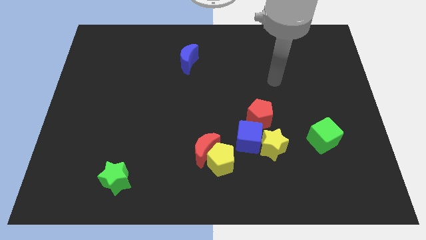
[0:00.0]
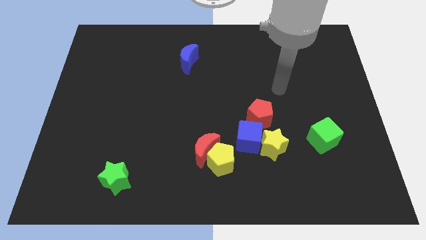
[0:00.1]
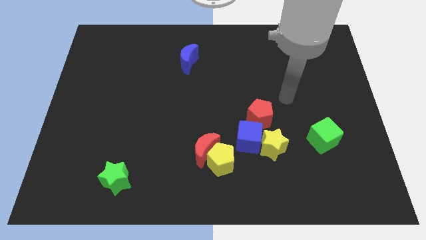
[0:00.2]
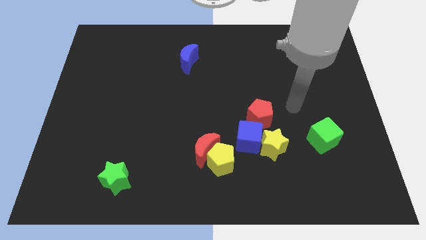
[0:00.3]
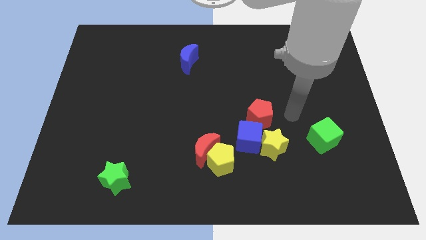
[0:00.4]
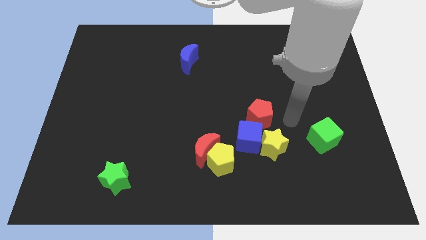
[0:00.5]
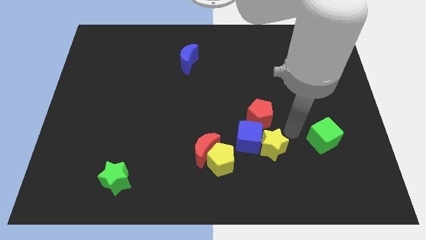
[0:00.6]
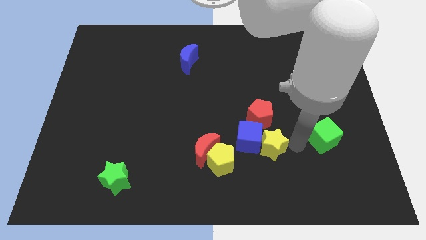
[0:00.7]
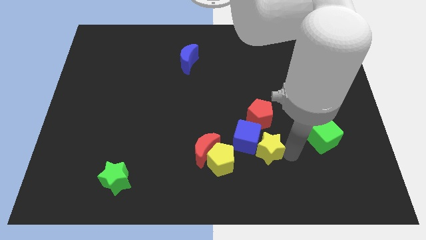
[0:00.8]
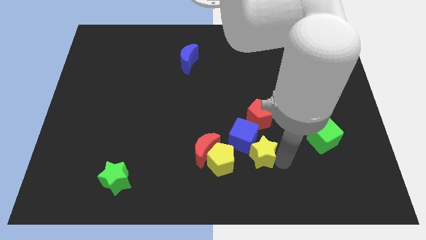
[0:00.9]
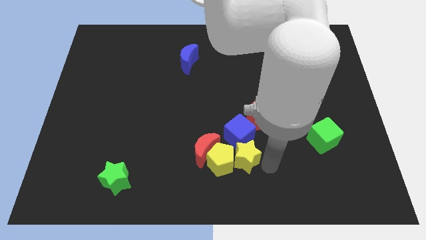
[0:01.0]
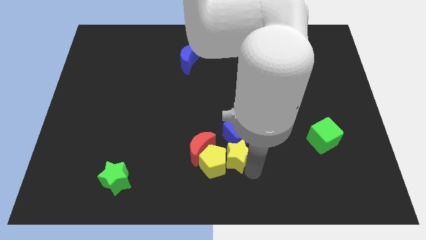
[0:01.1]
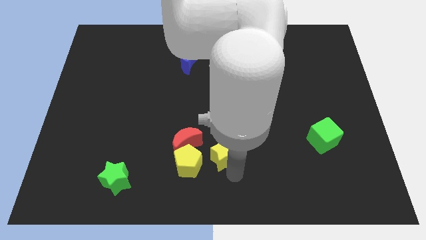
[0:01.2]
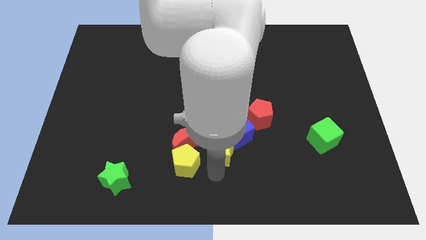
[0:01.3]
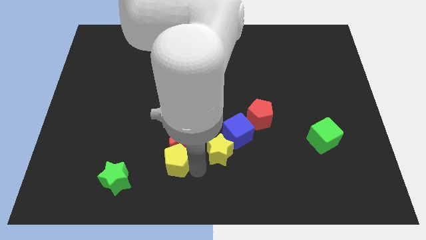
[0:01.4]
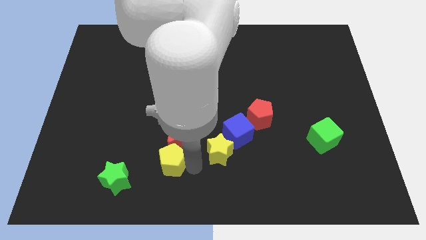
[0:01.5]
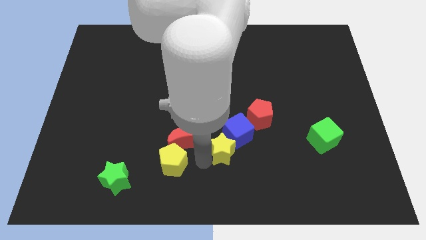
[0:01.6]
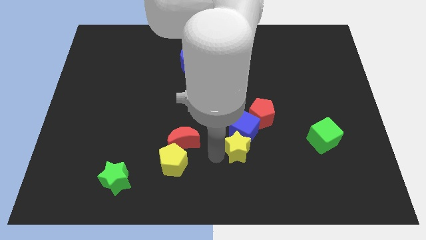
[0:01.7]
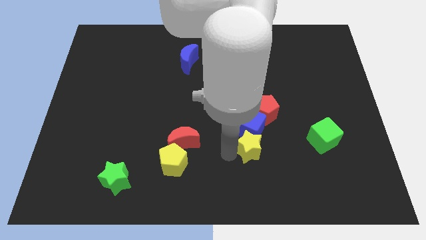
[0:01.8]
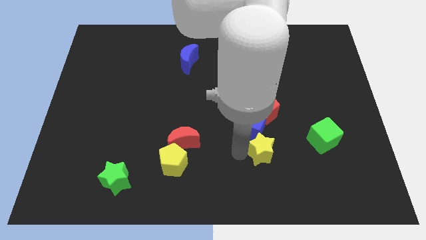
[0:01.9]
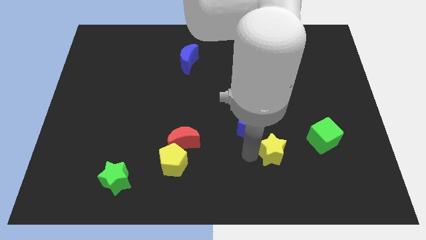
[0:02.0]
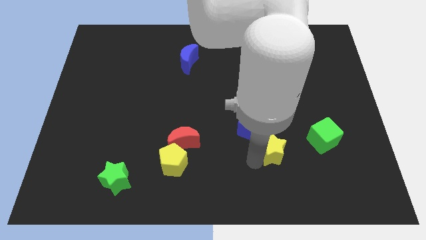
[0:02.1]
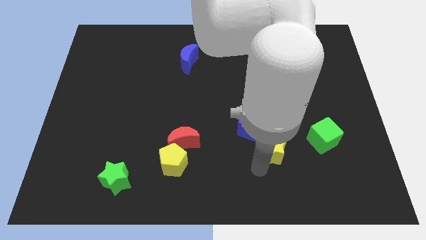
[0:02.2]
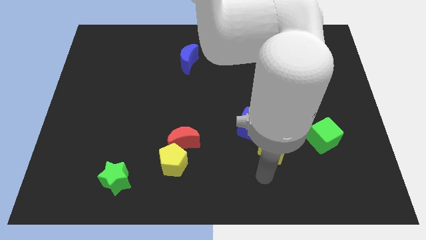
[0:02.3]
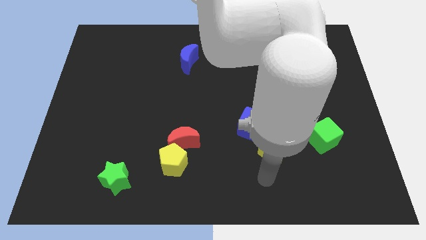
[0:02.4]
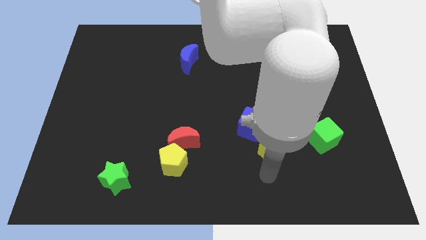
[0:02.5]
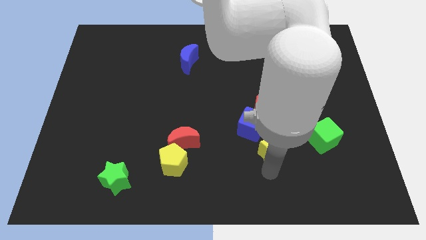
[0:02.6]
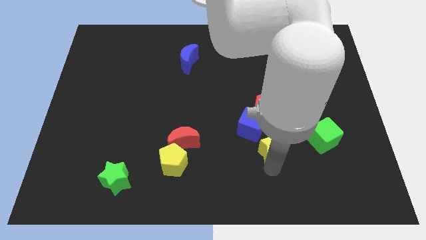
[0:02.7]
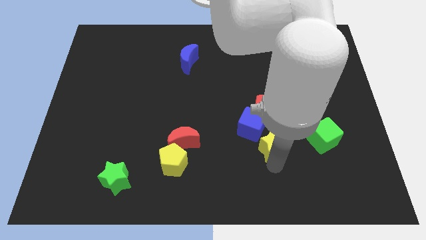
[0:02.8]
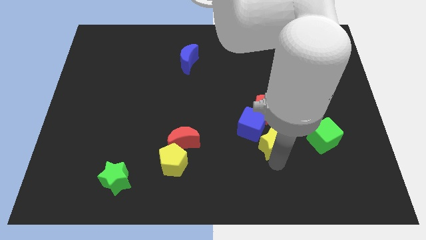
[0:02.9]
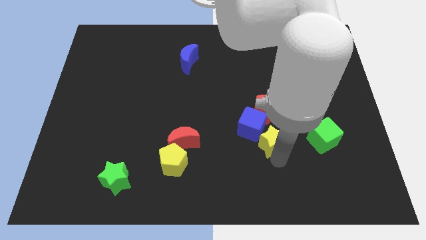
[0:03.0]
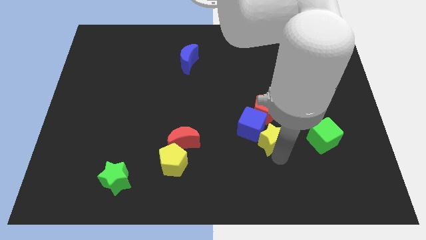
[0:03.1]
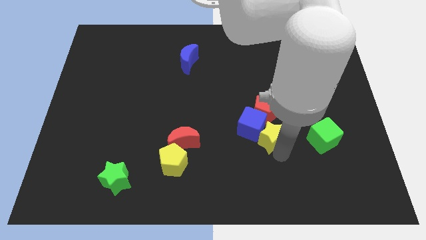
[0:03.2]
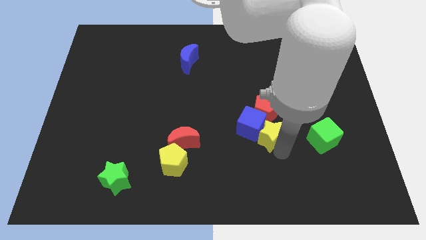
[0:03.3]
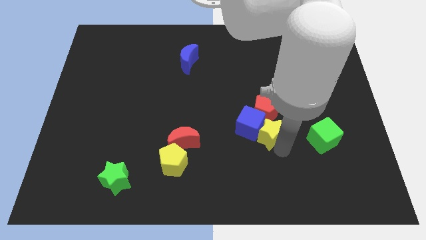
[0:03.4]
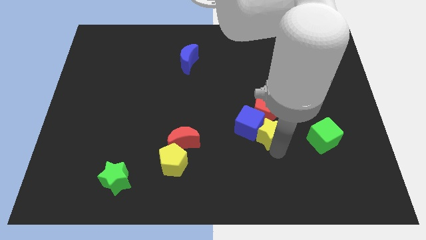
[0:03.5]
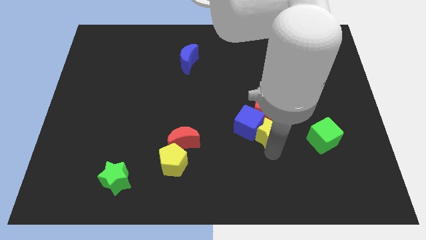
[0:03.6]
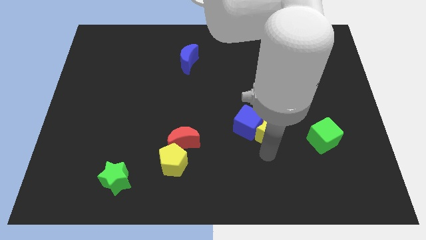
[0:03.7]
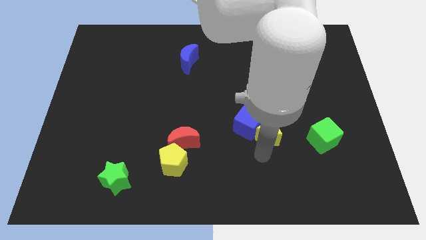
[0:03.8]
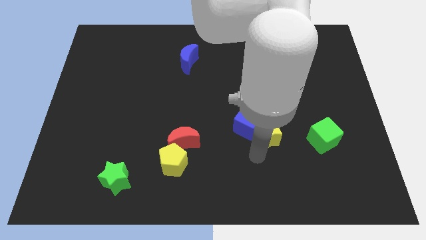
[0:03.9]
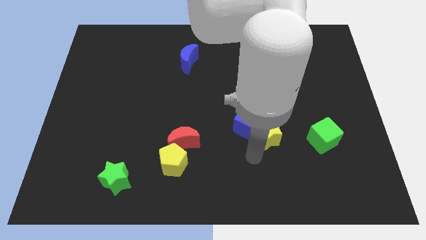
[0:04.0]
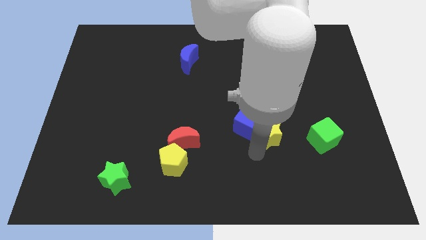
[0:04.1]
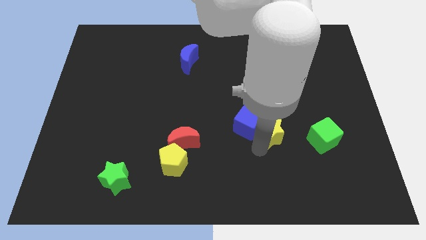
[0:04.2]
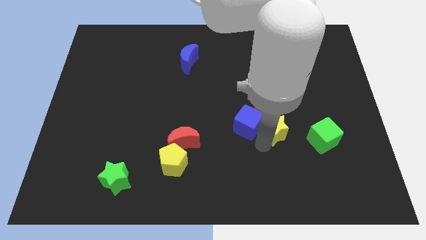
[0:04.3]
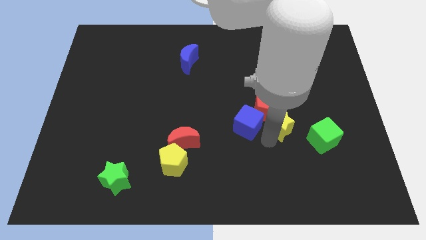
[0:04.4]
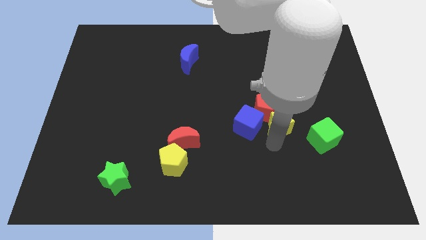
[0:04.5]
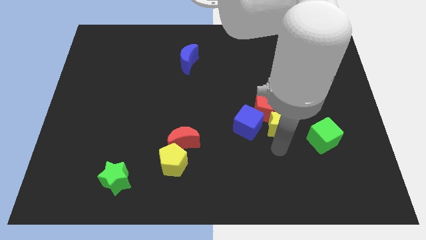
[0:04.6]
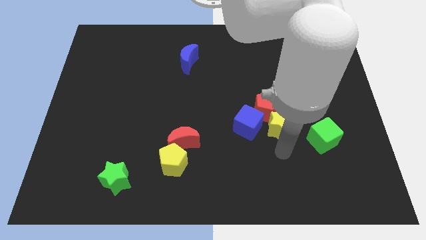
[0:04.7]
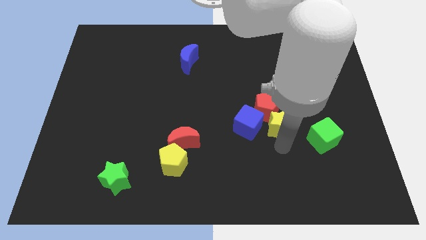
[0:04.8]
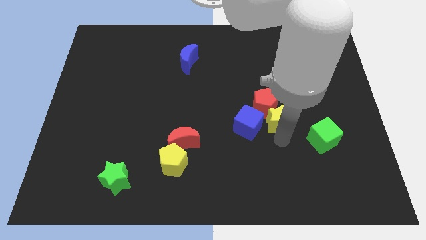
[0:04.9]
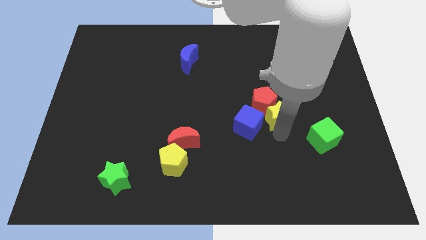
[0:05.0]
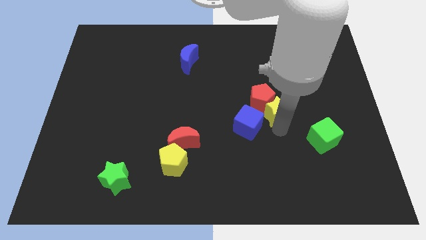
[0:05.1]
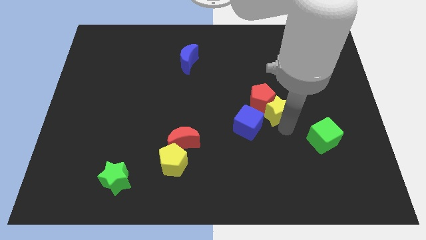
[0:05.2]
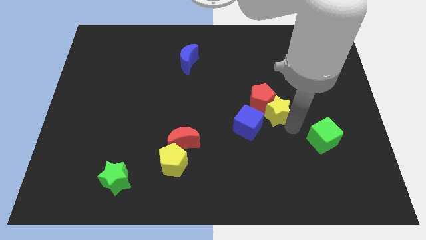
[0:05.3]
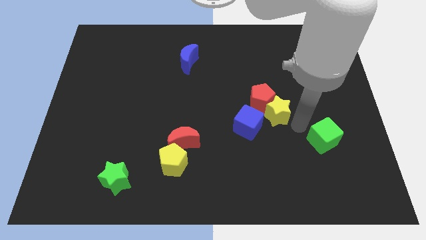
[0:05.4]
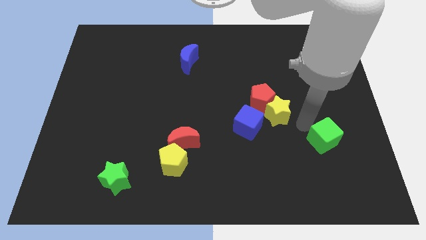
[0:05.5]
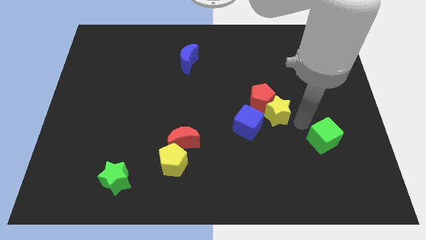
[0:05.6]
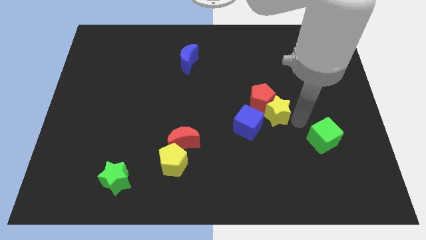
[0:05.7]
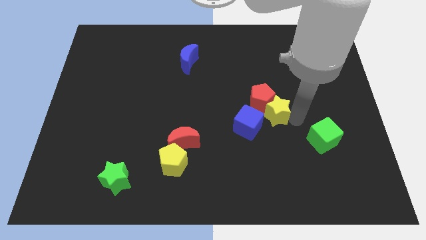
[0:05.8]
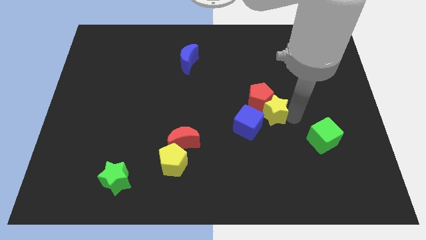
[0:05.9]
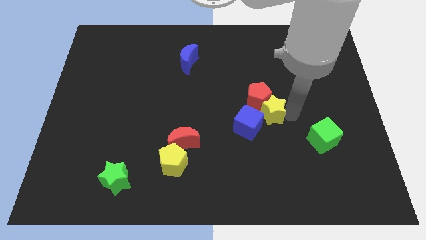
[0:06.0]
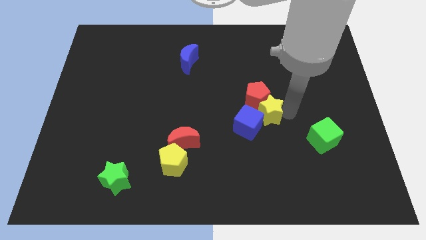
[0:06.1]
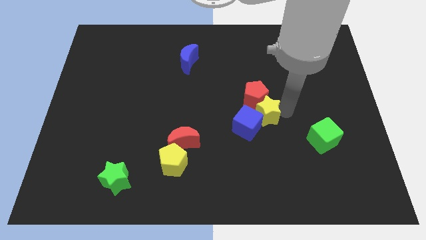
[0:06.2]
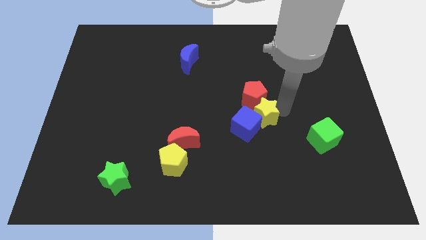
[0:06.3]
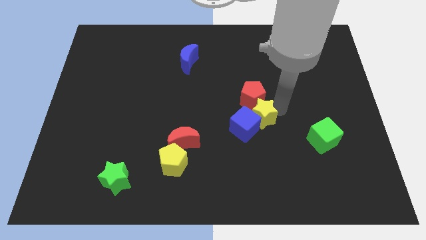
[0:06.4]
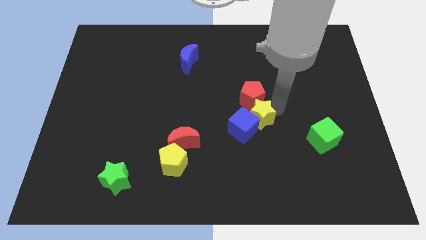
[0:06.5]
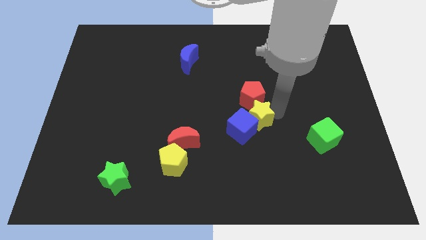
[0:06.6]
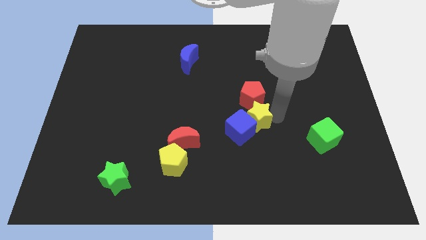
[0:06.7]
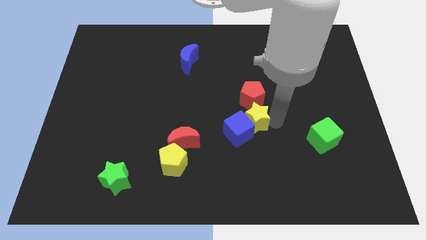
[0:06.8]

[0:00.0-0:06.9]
slightly push the yellow star up and to the left diagonally

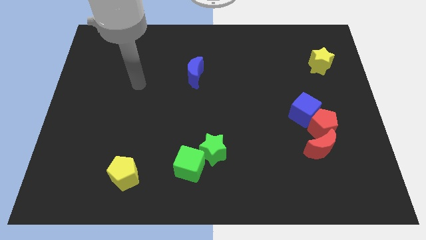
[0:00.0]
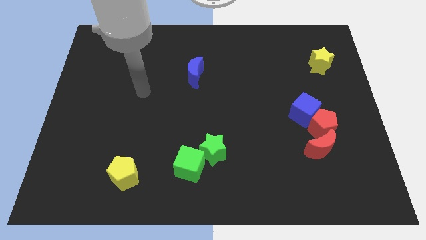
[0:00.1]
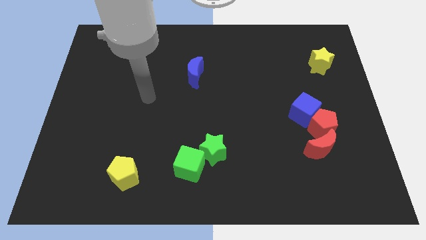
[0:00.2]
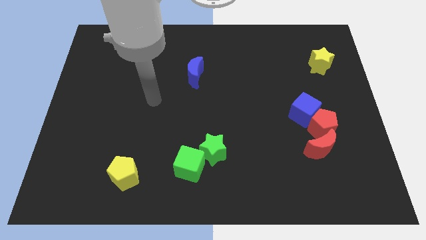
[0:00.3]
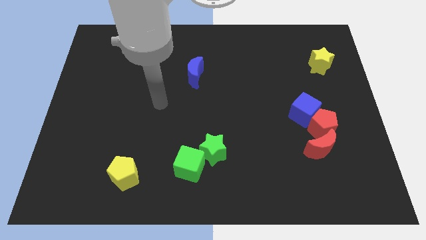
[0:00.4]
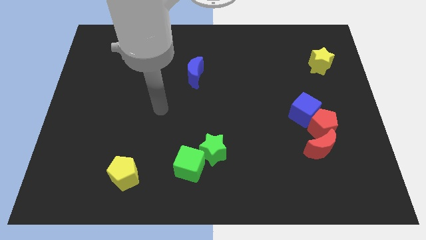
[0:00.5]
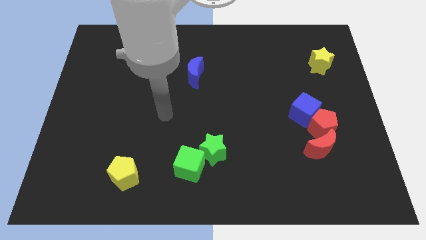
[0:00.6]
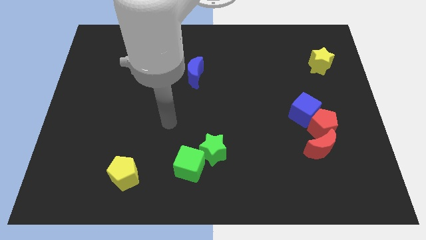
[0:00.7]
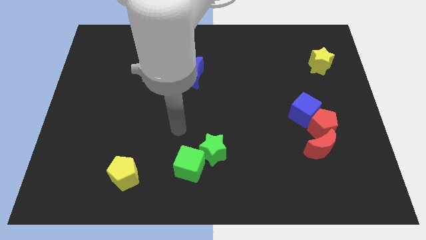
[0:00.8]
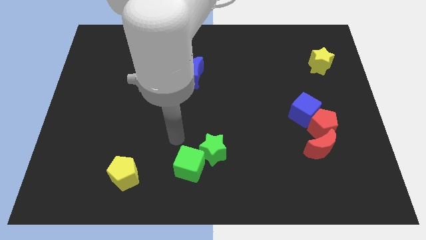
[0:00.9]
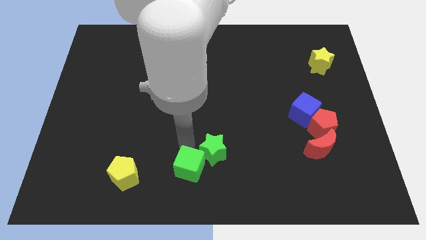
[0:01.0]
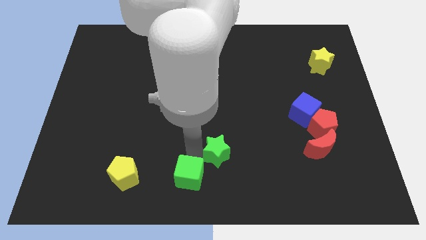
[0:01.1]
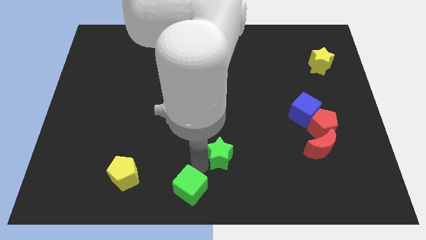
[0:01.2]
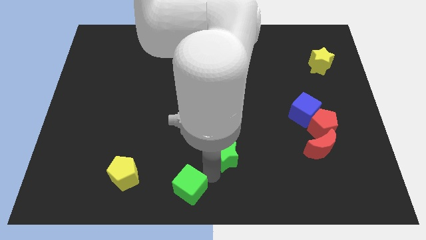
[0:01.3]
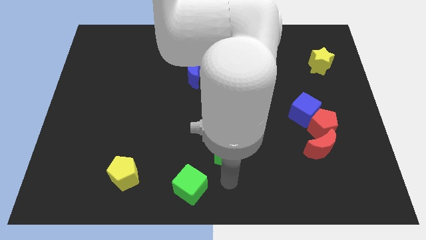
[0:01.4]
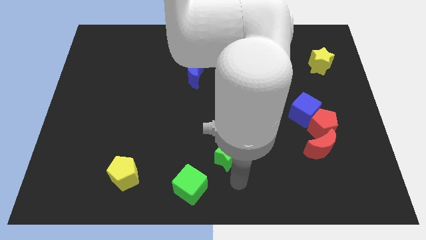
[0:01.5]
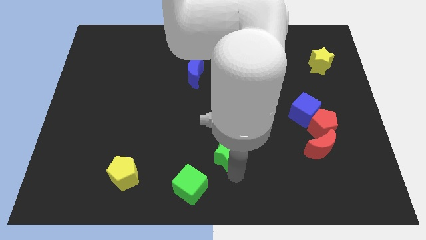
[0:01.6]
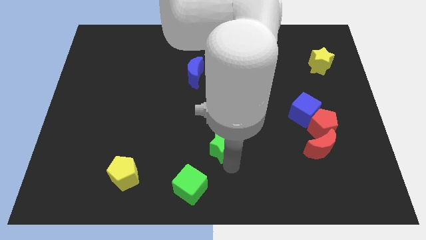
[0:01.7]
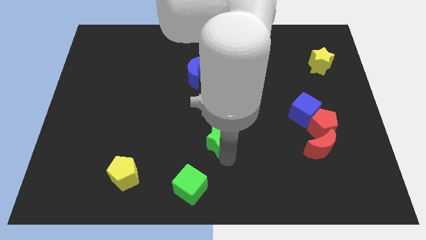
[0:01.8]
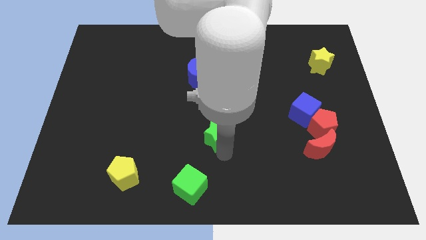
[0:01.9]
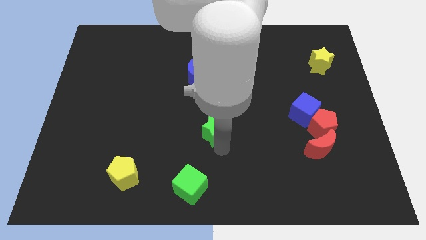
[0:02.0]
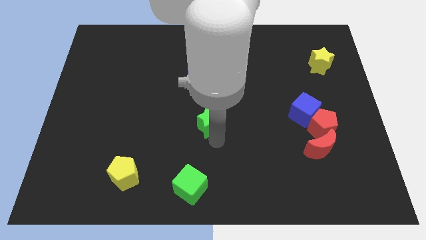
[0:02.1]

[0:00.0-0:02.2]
slide the green star upwards slightly
